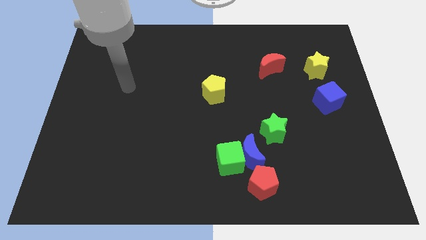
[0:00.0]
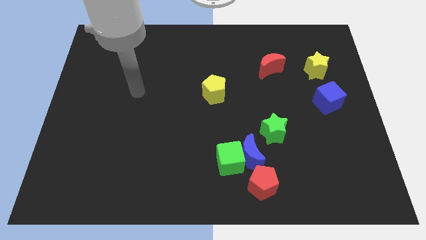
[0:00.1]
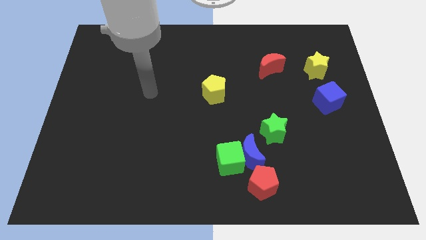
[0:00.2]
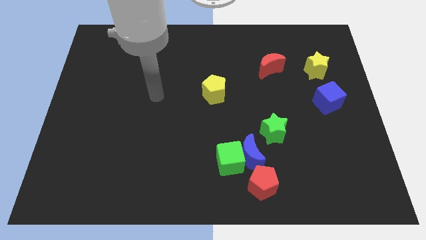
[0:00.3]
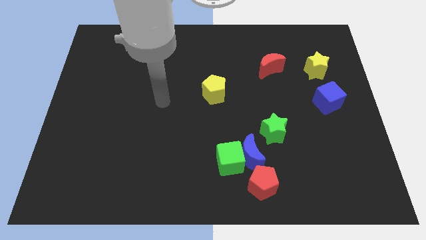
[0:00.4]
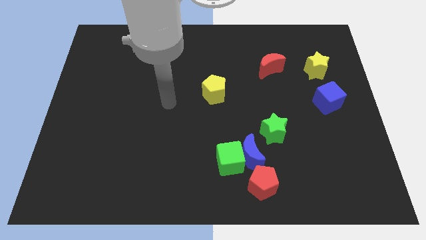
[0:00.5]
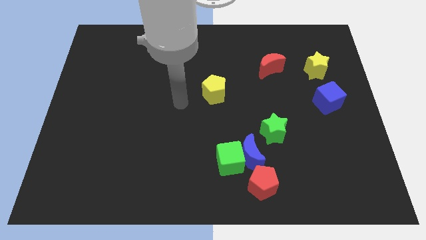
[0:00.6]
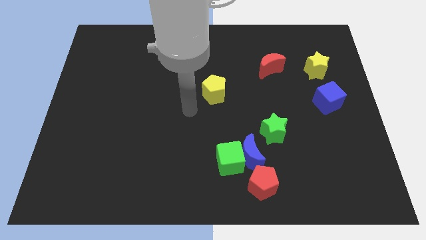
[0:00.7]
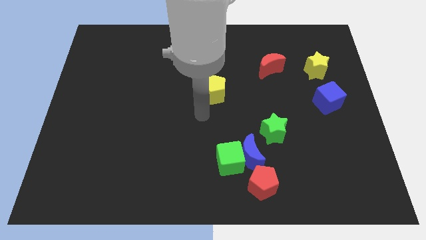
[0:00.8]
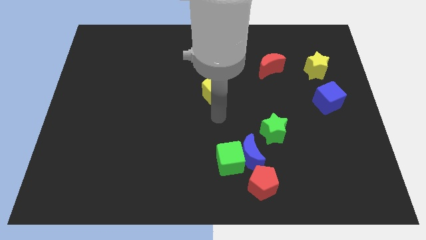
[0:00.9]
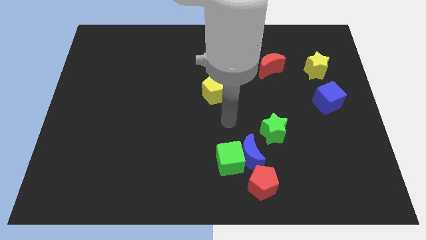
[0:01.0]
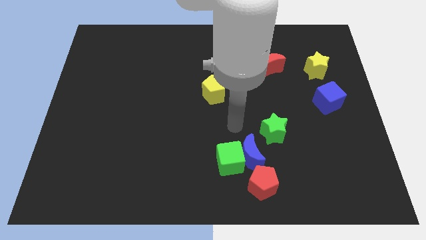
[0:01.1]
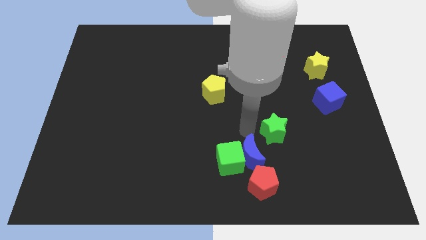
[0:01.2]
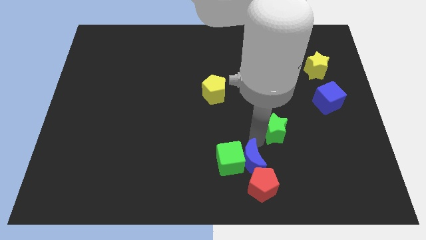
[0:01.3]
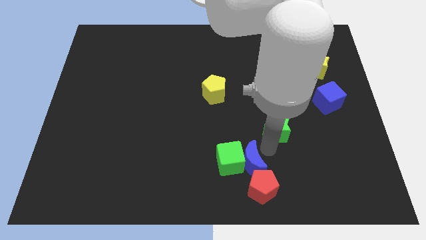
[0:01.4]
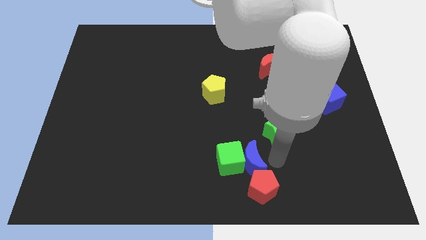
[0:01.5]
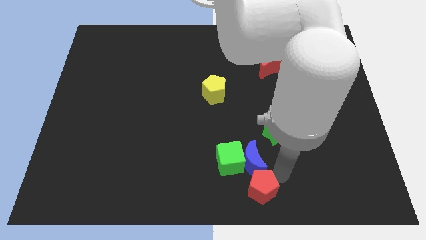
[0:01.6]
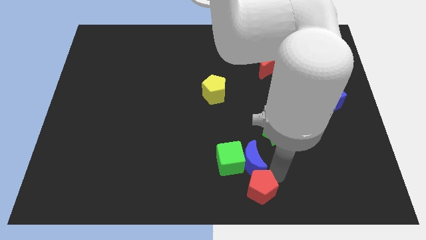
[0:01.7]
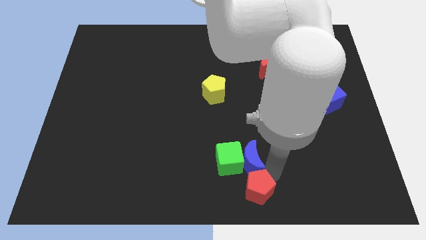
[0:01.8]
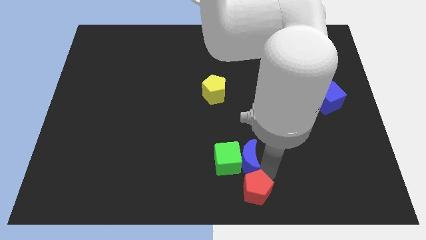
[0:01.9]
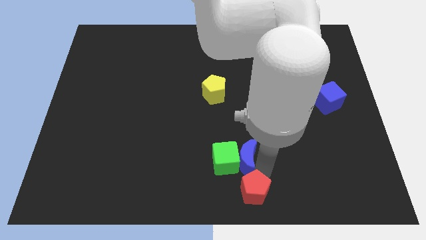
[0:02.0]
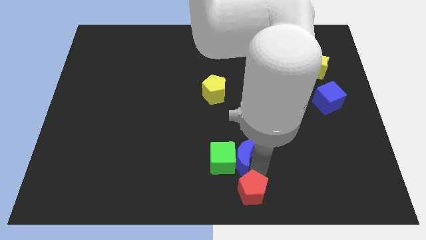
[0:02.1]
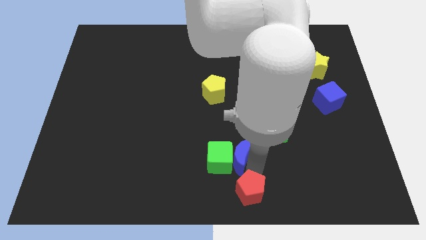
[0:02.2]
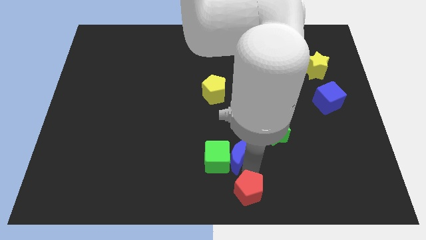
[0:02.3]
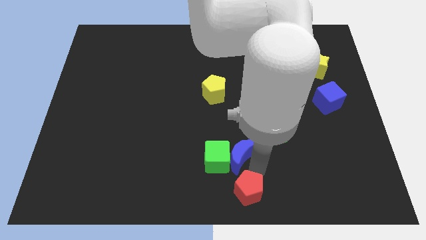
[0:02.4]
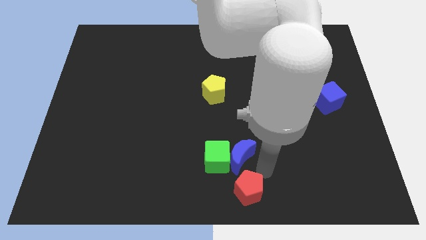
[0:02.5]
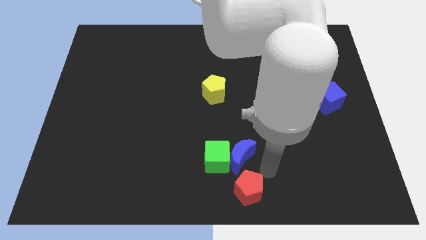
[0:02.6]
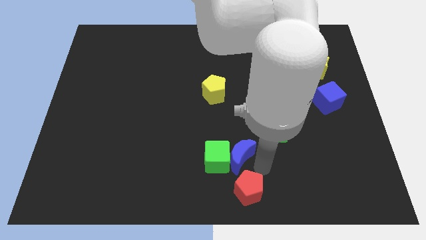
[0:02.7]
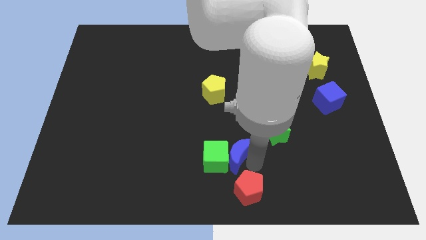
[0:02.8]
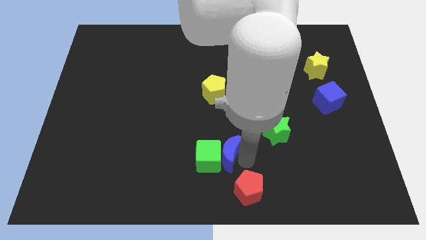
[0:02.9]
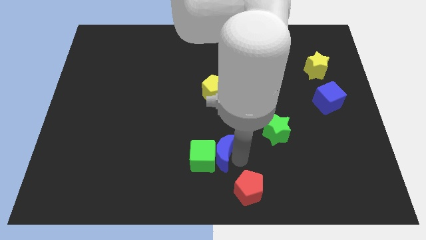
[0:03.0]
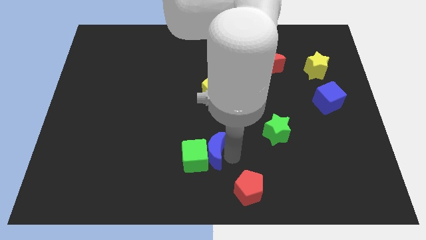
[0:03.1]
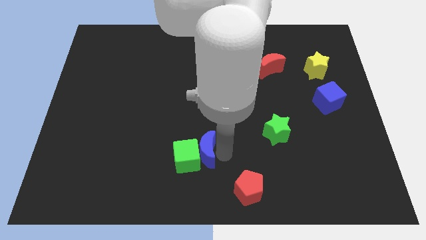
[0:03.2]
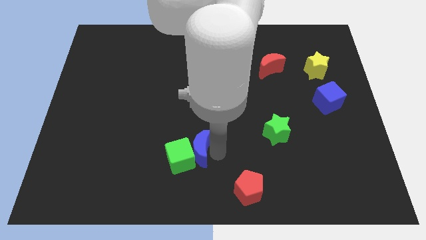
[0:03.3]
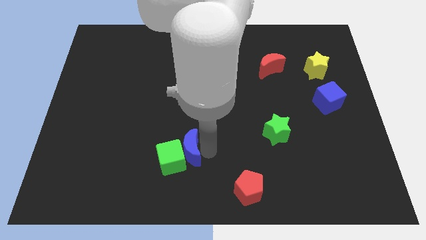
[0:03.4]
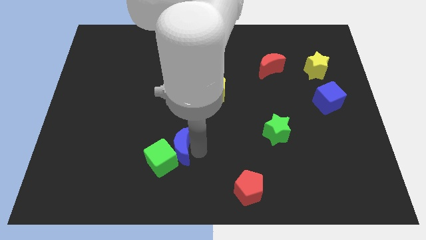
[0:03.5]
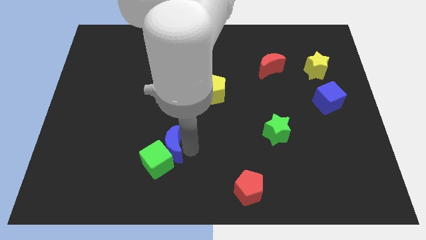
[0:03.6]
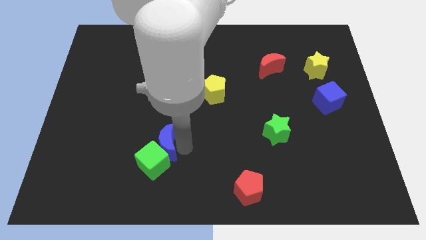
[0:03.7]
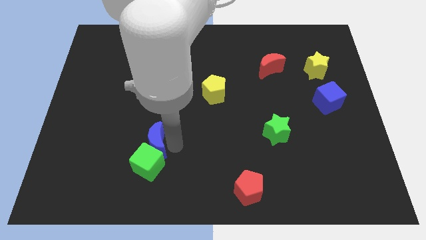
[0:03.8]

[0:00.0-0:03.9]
slide the blue moon to the left

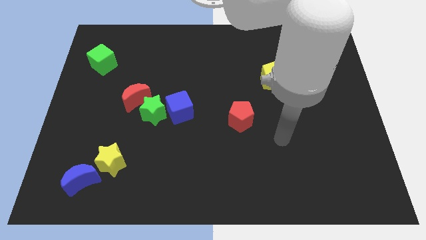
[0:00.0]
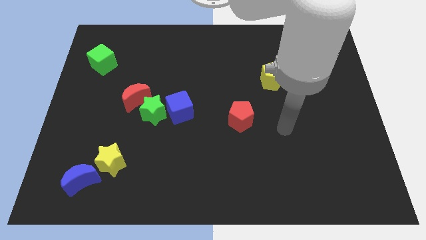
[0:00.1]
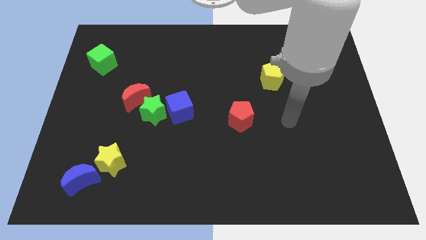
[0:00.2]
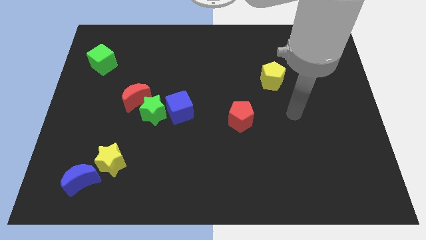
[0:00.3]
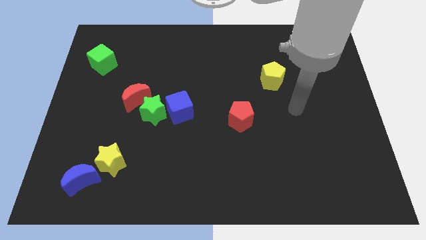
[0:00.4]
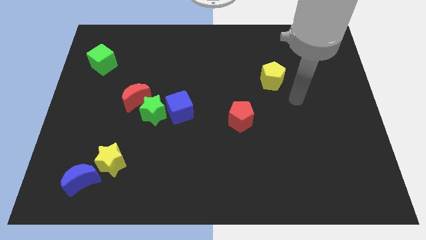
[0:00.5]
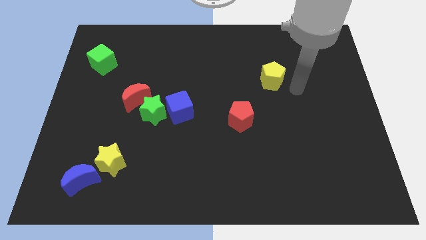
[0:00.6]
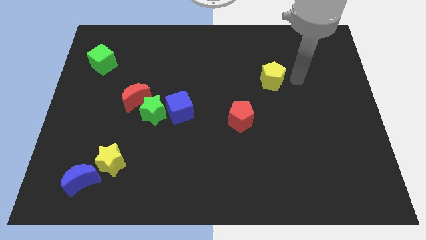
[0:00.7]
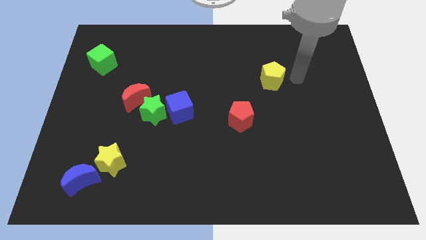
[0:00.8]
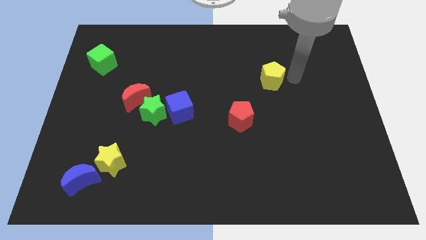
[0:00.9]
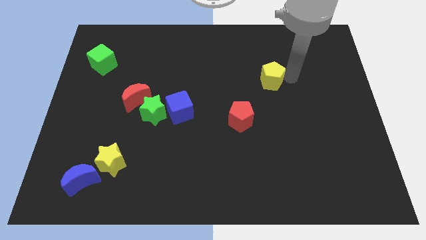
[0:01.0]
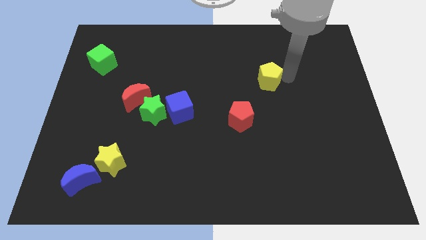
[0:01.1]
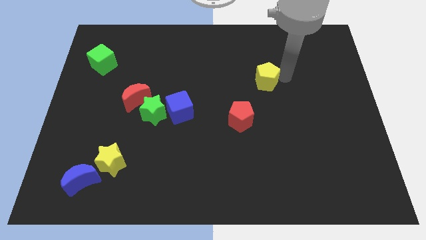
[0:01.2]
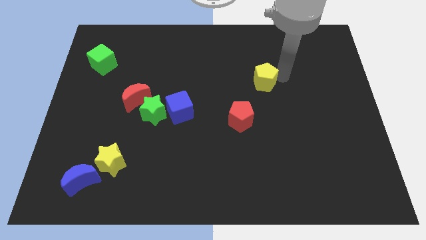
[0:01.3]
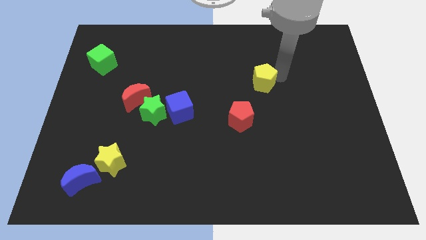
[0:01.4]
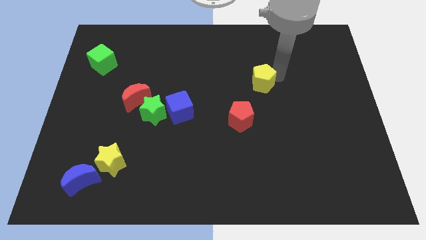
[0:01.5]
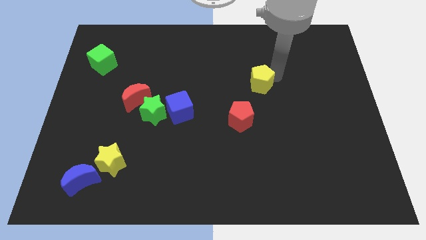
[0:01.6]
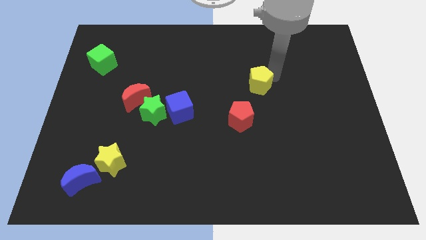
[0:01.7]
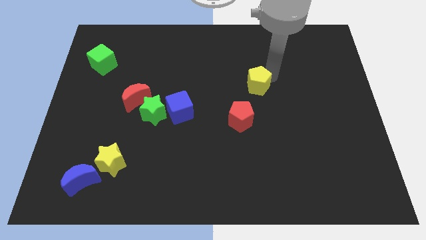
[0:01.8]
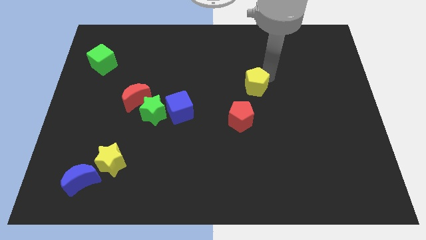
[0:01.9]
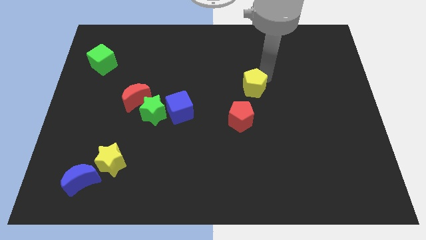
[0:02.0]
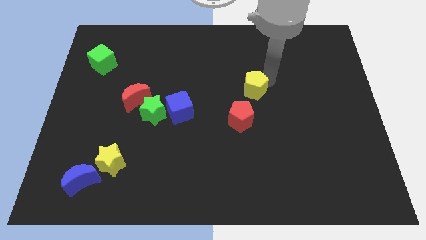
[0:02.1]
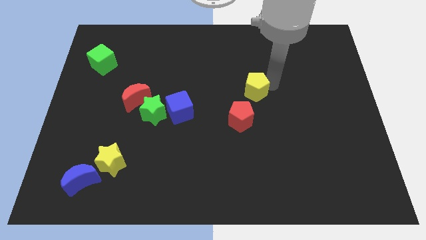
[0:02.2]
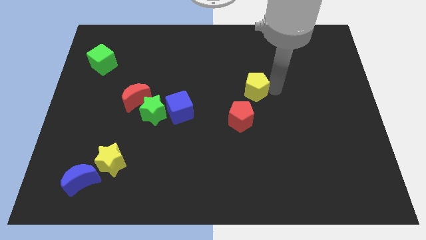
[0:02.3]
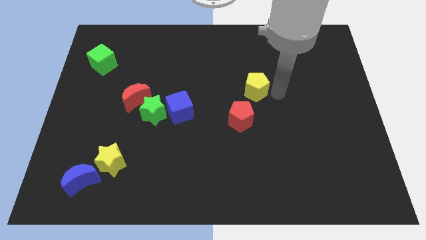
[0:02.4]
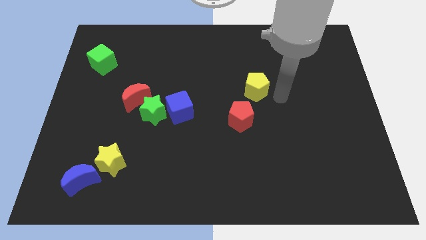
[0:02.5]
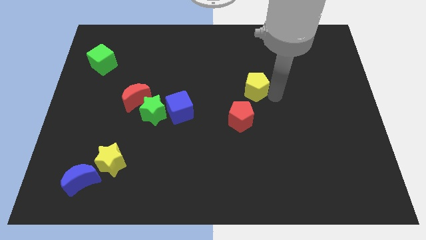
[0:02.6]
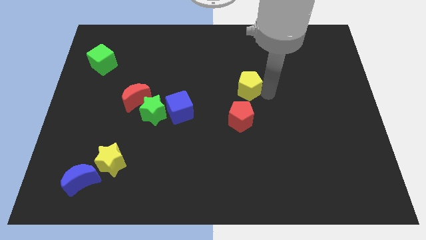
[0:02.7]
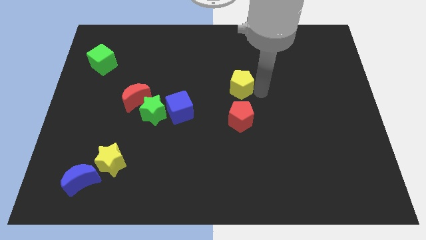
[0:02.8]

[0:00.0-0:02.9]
slide the yellow pentagon a little to the left

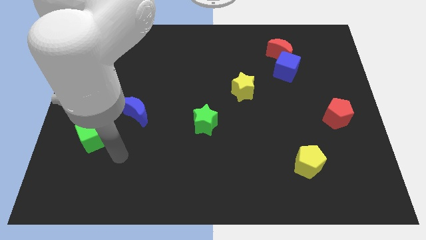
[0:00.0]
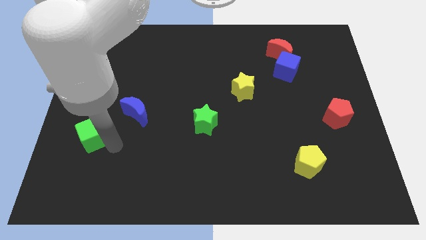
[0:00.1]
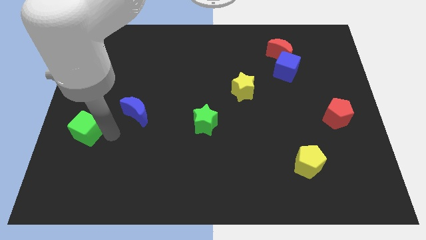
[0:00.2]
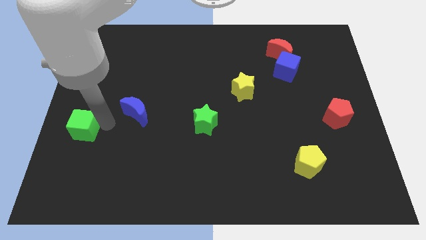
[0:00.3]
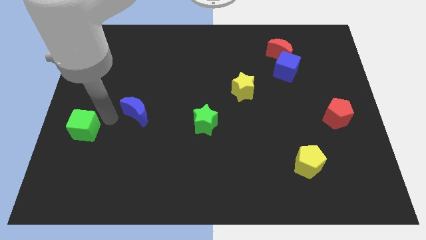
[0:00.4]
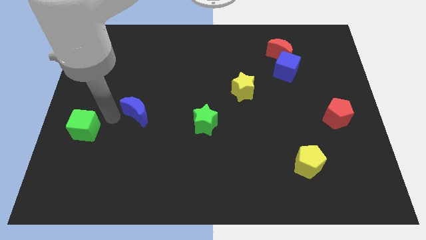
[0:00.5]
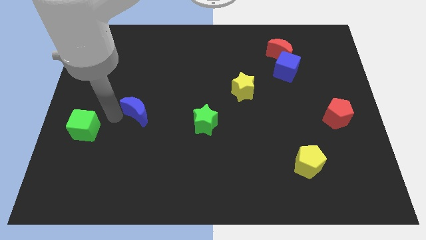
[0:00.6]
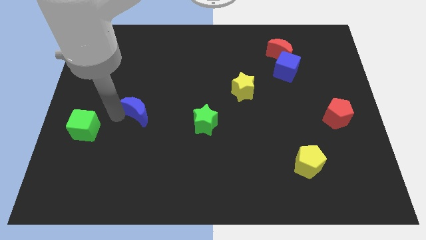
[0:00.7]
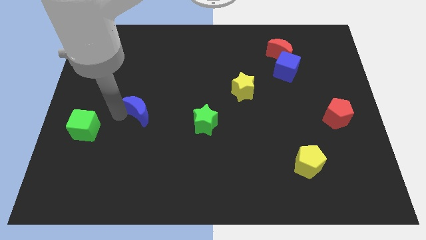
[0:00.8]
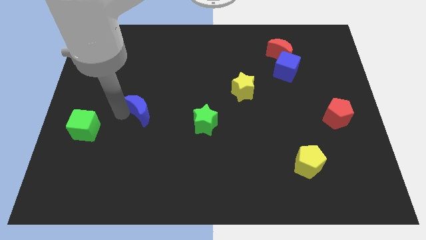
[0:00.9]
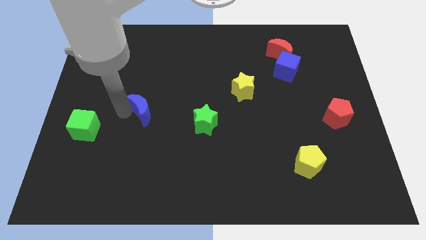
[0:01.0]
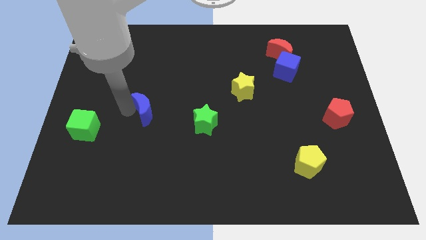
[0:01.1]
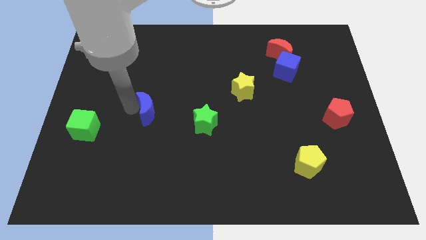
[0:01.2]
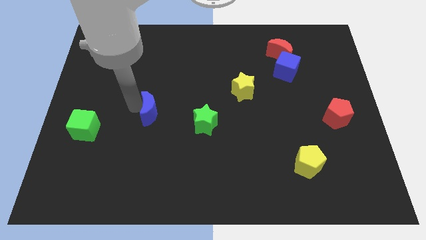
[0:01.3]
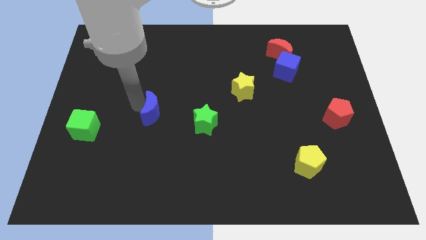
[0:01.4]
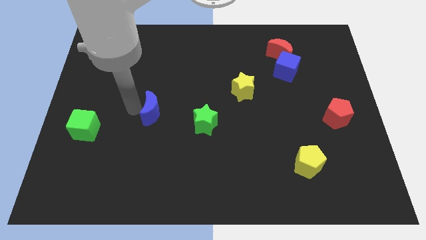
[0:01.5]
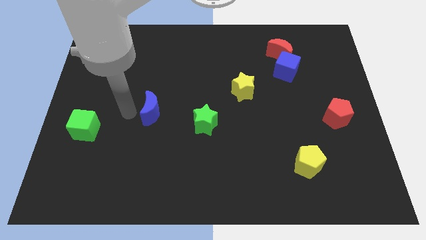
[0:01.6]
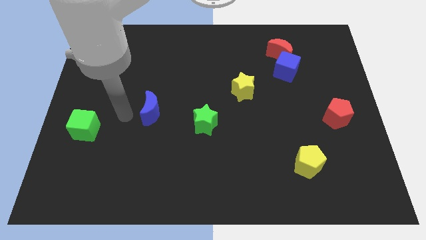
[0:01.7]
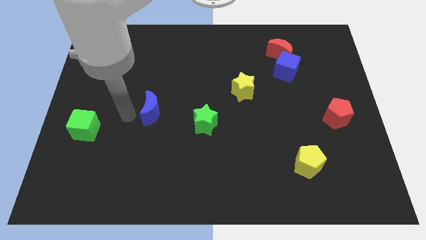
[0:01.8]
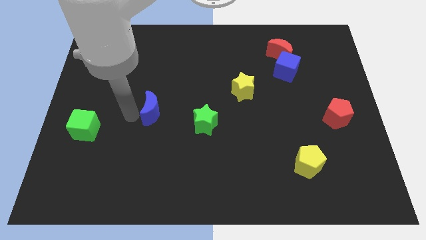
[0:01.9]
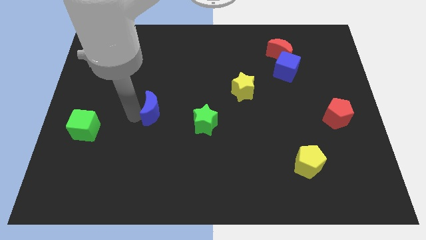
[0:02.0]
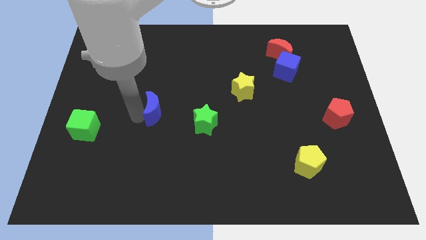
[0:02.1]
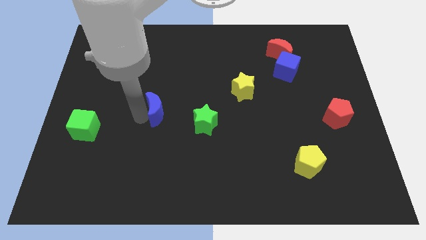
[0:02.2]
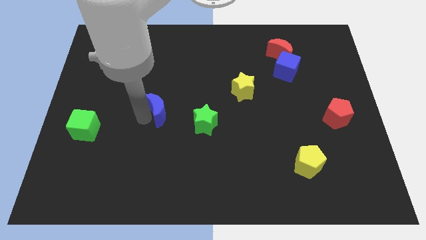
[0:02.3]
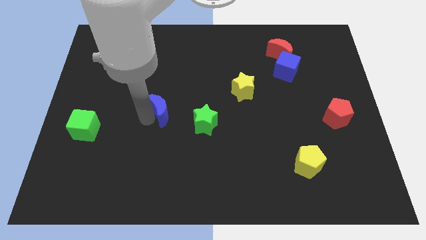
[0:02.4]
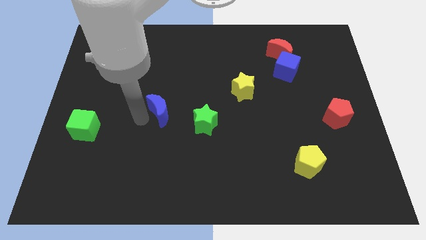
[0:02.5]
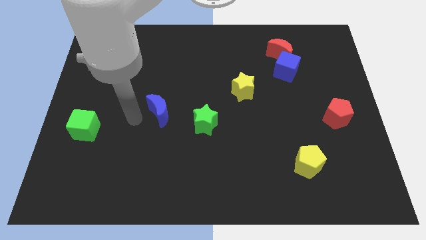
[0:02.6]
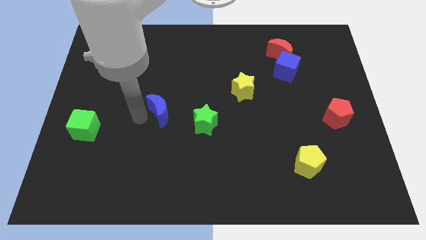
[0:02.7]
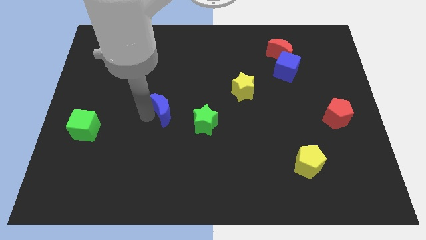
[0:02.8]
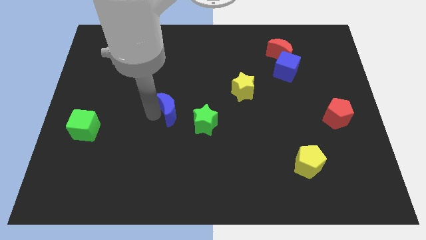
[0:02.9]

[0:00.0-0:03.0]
slide the blue moon right a bit
